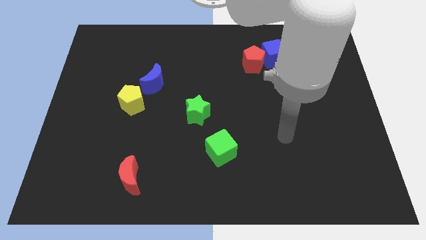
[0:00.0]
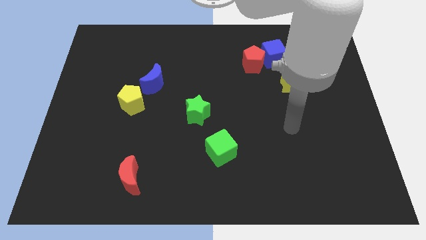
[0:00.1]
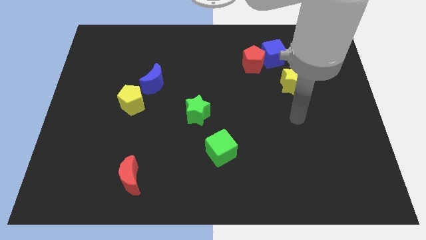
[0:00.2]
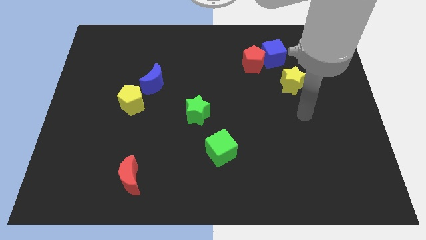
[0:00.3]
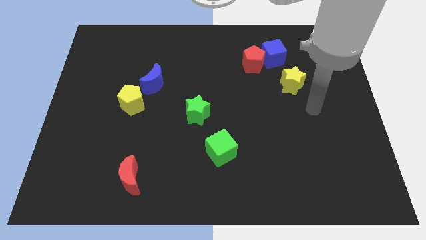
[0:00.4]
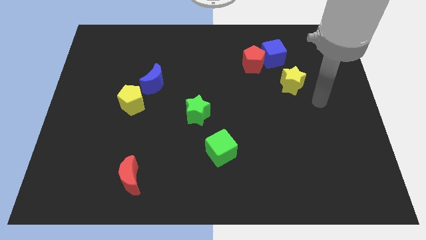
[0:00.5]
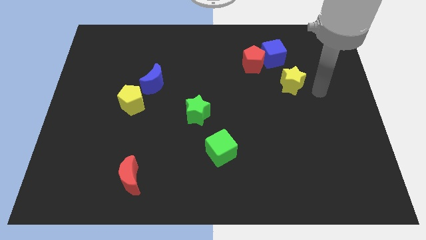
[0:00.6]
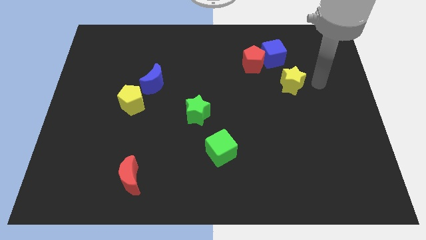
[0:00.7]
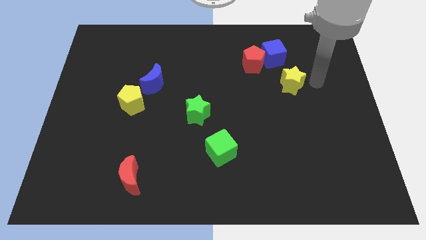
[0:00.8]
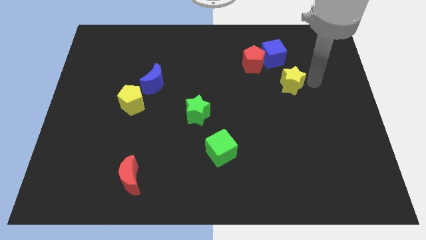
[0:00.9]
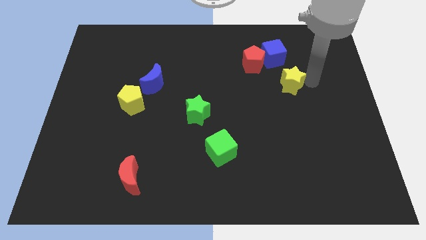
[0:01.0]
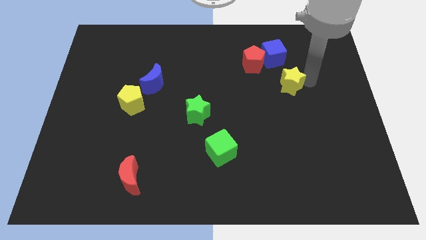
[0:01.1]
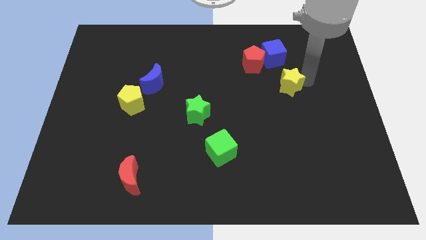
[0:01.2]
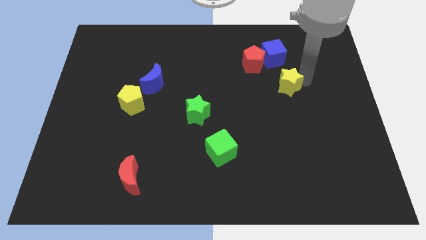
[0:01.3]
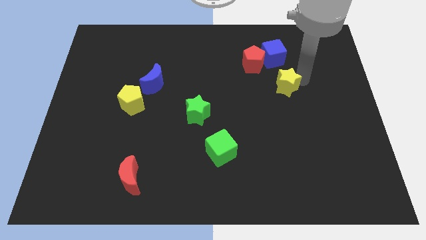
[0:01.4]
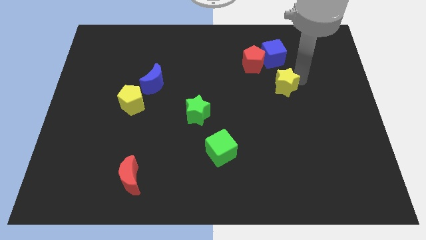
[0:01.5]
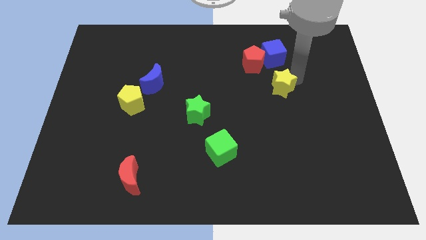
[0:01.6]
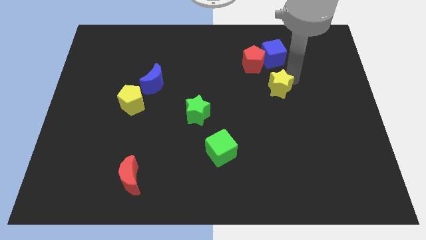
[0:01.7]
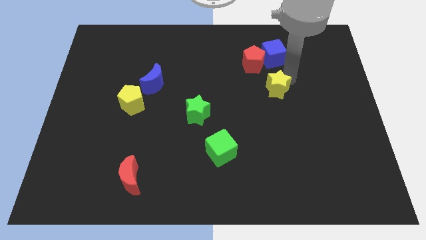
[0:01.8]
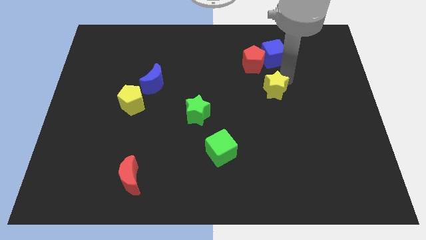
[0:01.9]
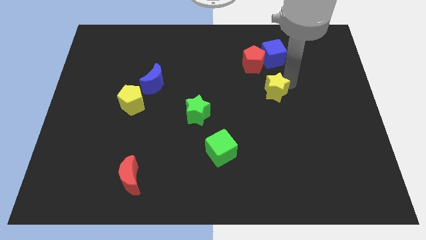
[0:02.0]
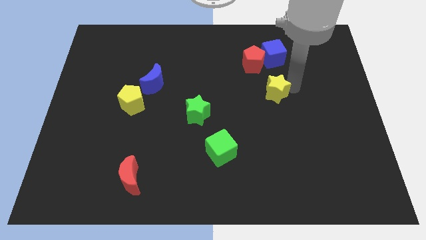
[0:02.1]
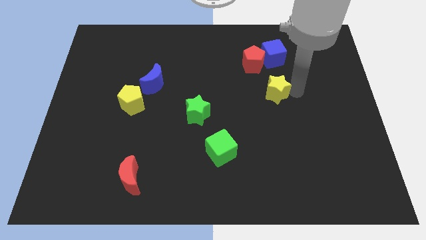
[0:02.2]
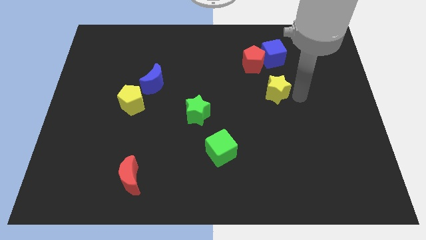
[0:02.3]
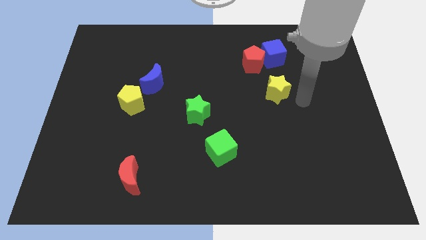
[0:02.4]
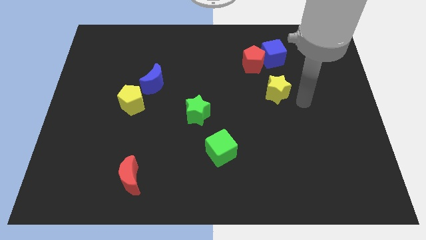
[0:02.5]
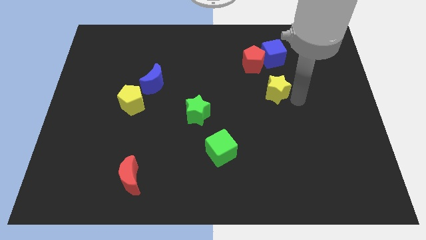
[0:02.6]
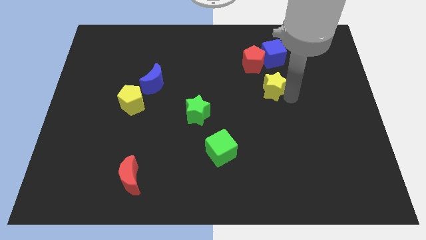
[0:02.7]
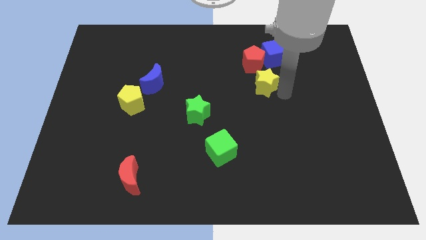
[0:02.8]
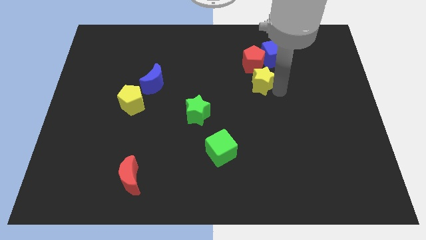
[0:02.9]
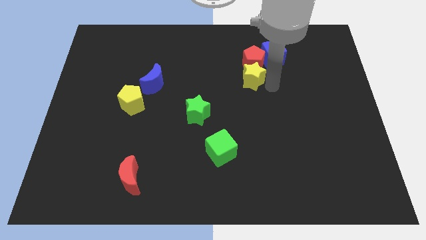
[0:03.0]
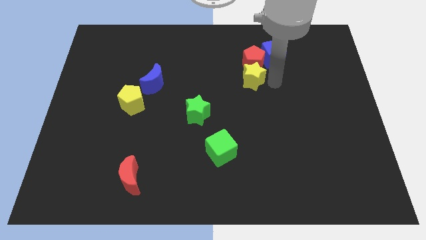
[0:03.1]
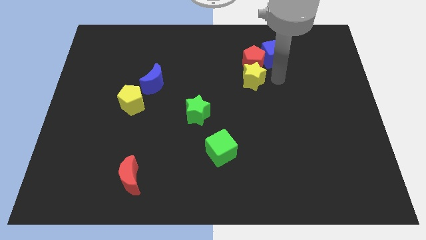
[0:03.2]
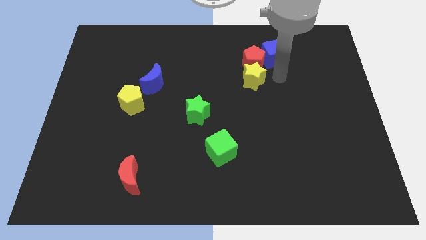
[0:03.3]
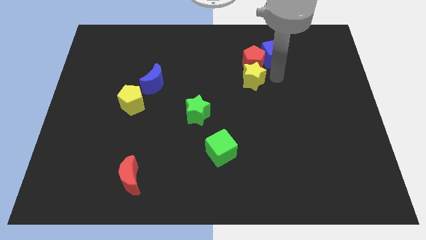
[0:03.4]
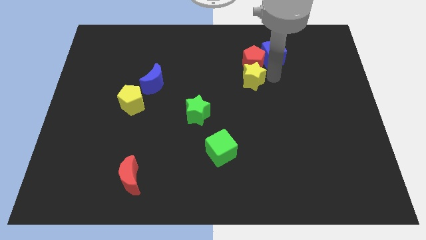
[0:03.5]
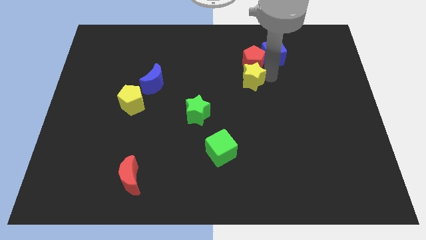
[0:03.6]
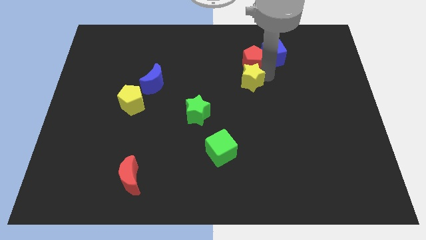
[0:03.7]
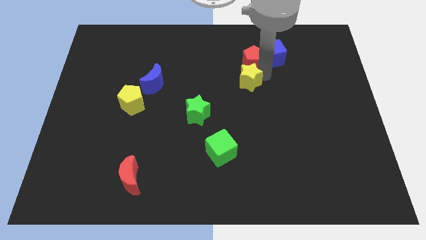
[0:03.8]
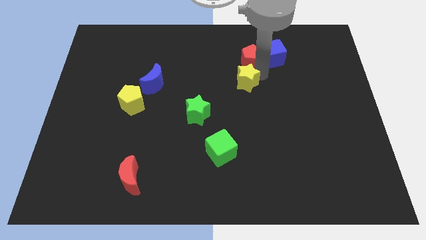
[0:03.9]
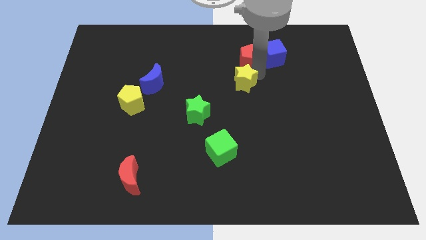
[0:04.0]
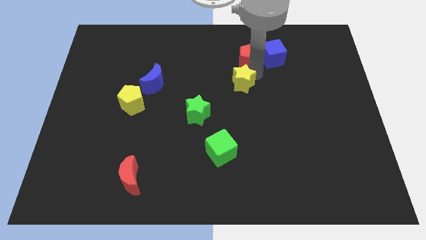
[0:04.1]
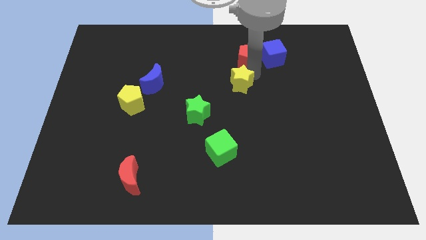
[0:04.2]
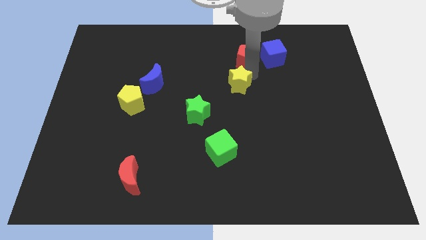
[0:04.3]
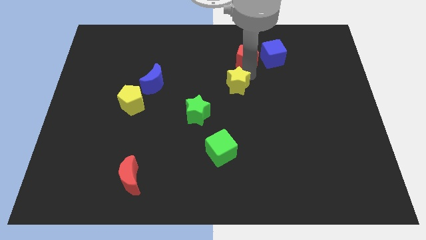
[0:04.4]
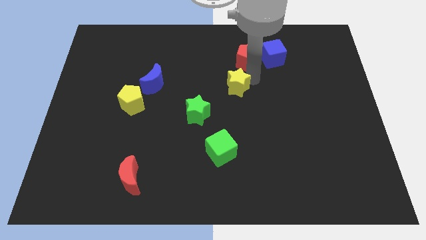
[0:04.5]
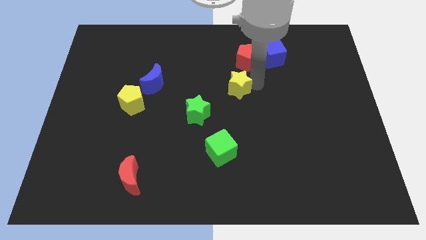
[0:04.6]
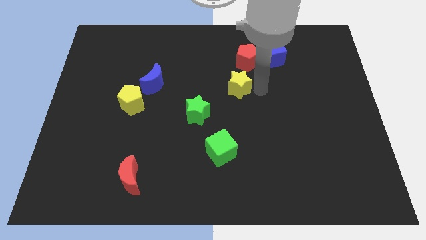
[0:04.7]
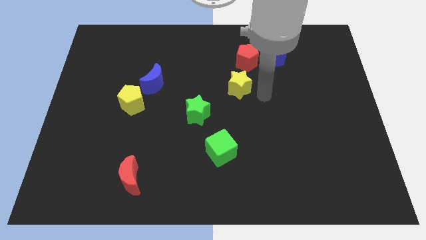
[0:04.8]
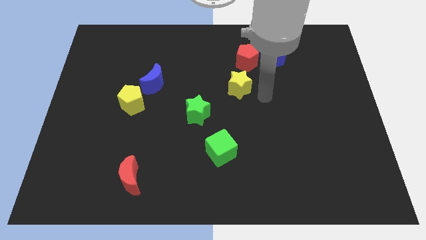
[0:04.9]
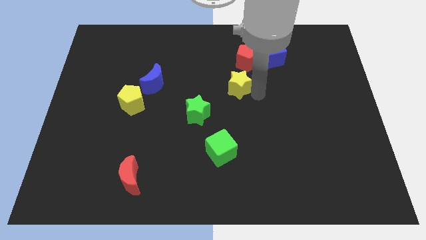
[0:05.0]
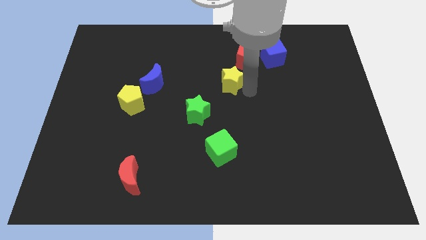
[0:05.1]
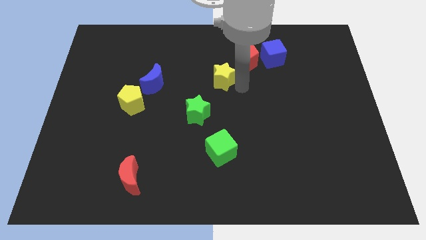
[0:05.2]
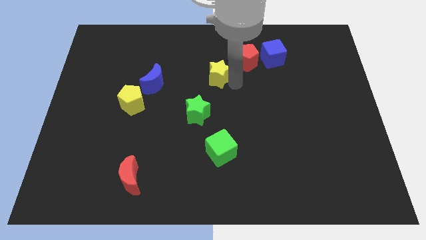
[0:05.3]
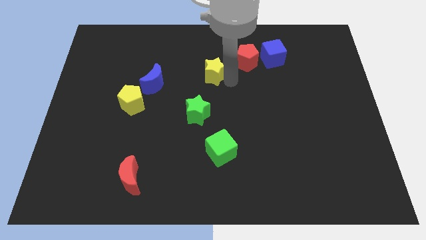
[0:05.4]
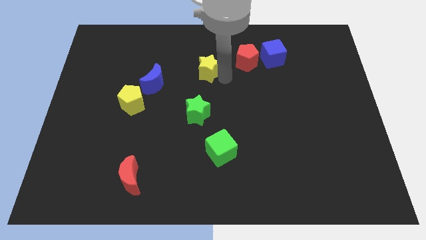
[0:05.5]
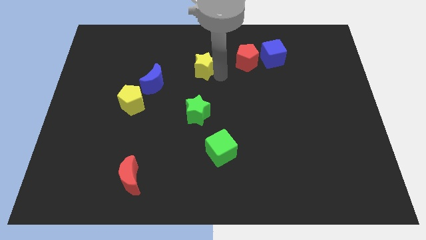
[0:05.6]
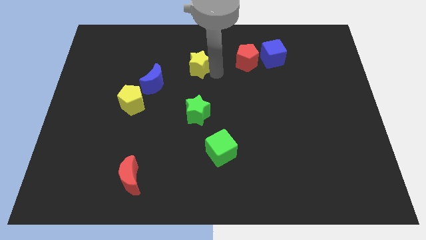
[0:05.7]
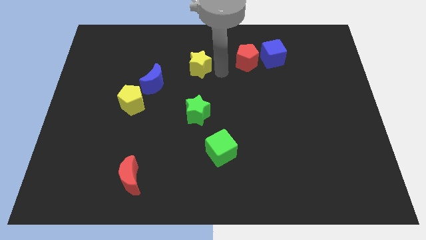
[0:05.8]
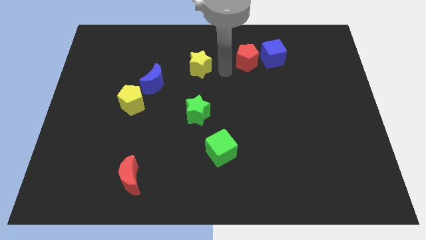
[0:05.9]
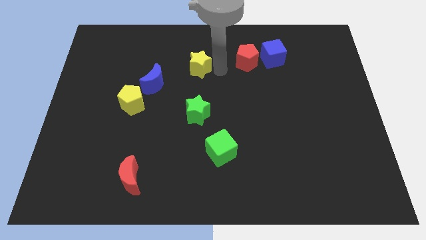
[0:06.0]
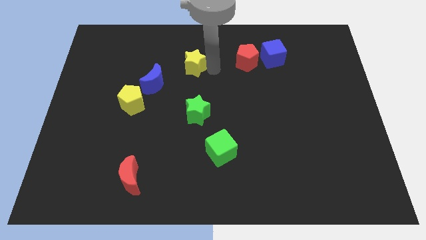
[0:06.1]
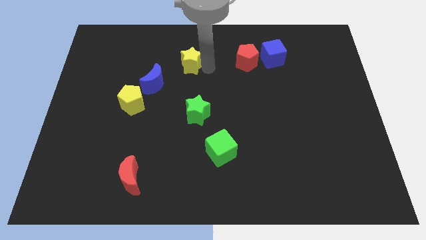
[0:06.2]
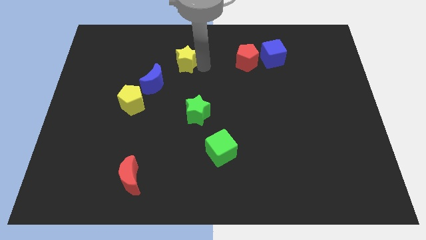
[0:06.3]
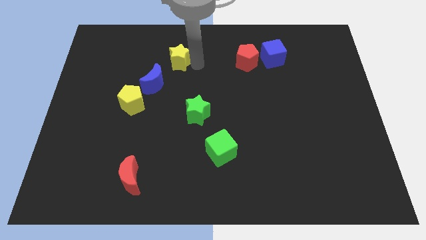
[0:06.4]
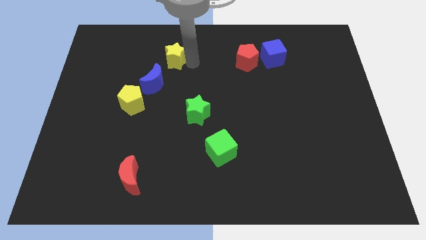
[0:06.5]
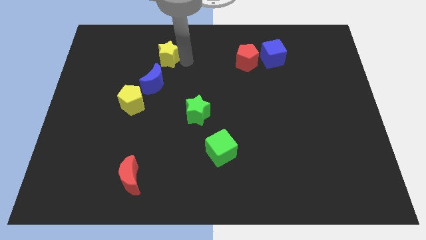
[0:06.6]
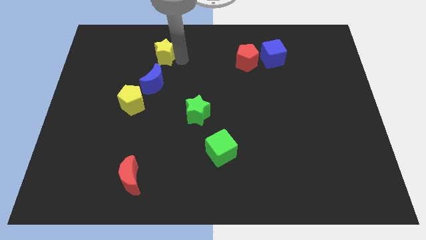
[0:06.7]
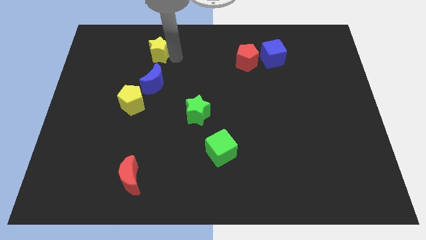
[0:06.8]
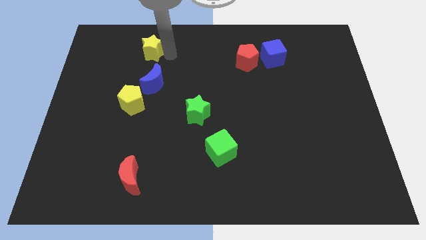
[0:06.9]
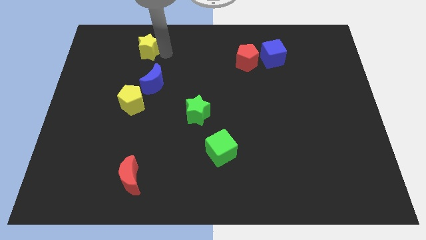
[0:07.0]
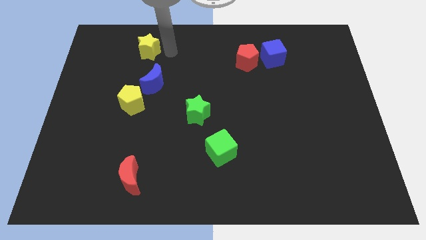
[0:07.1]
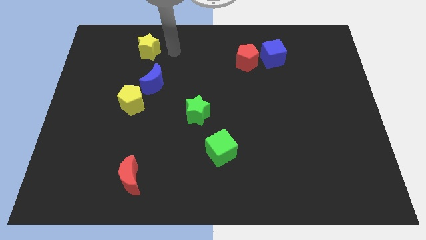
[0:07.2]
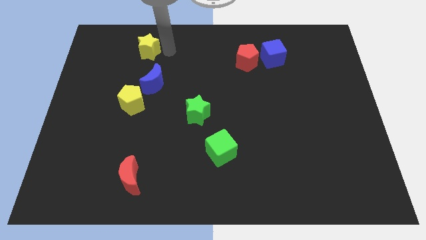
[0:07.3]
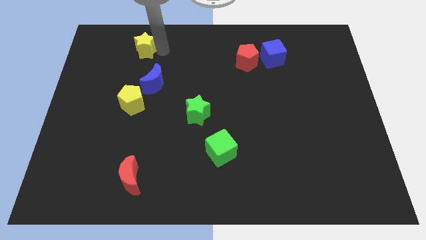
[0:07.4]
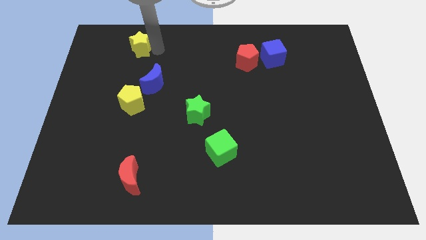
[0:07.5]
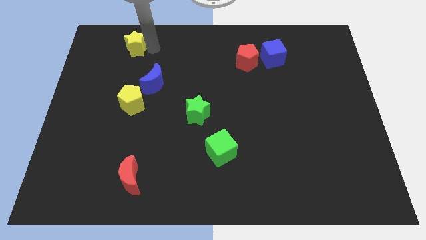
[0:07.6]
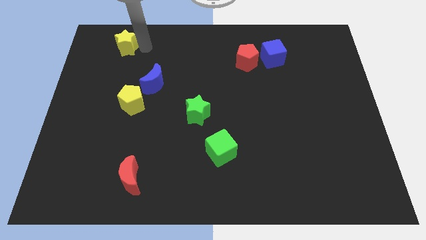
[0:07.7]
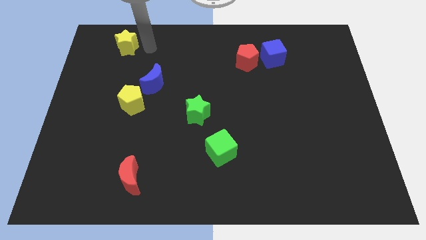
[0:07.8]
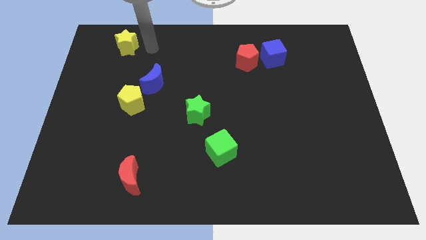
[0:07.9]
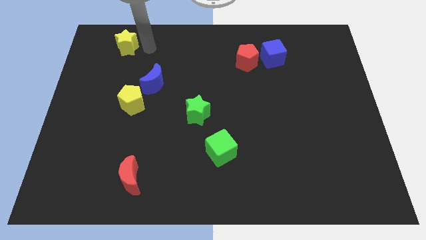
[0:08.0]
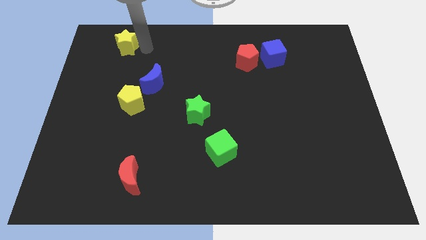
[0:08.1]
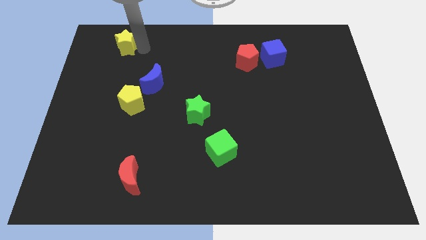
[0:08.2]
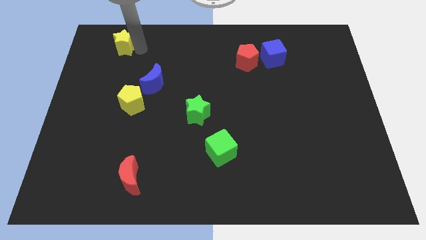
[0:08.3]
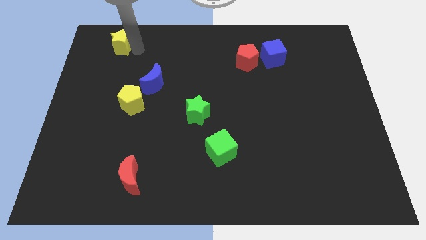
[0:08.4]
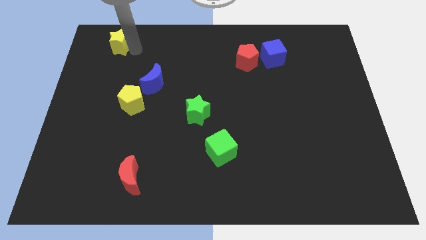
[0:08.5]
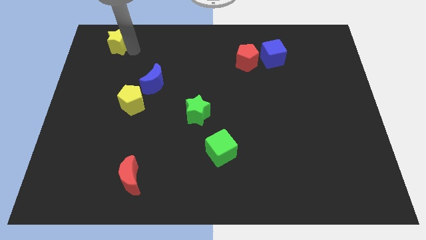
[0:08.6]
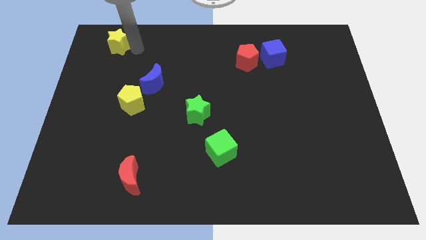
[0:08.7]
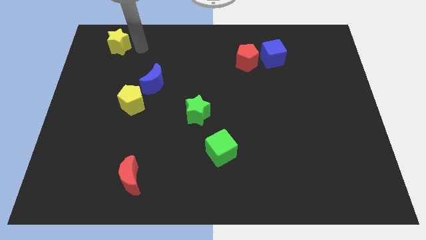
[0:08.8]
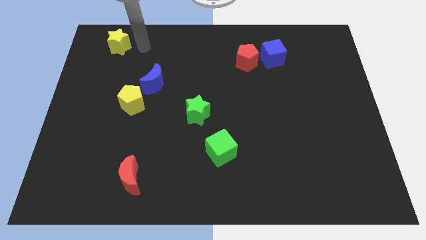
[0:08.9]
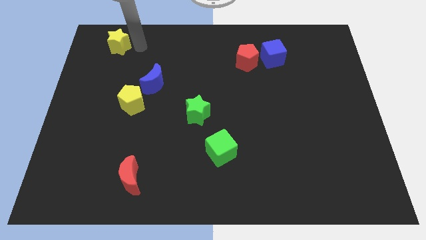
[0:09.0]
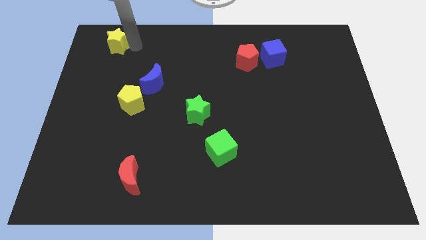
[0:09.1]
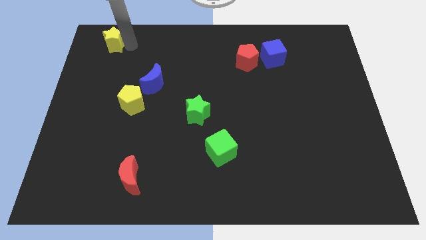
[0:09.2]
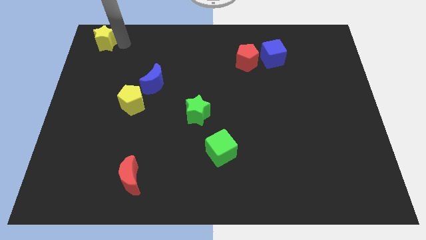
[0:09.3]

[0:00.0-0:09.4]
push the yellow star to the top left corner
